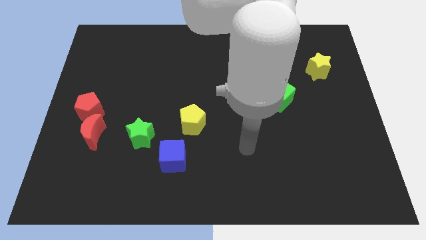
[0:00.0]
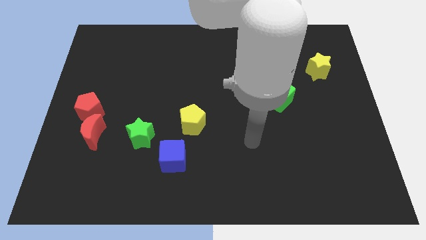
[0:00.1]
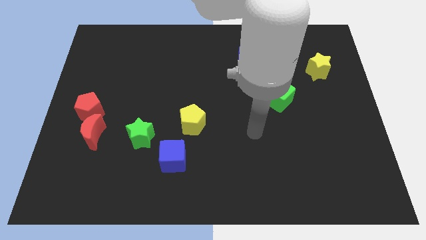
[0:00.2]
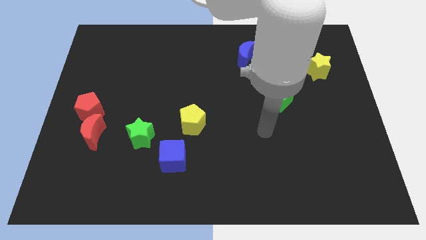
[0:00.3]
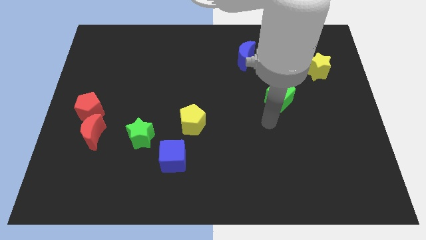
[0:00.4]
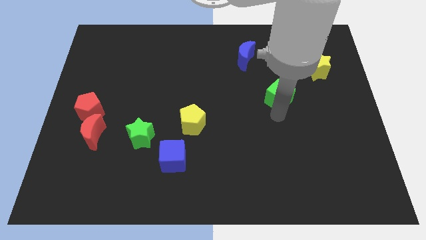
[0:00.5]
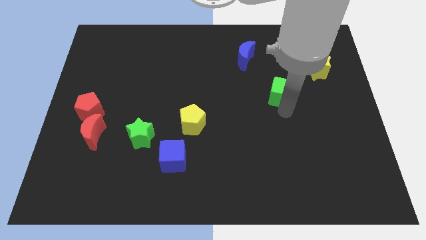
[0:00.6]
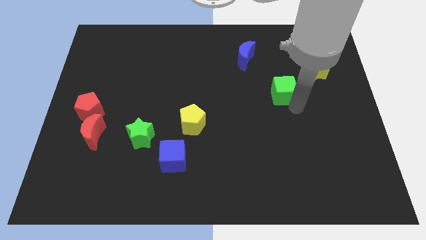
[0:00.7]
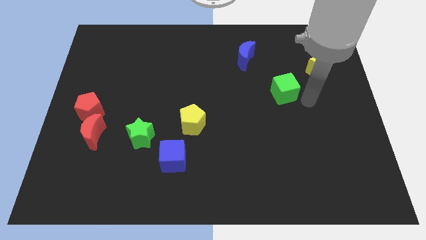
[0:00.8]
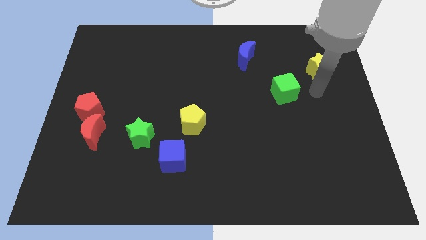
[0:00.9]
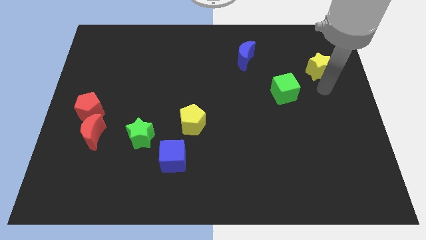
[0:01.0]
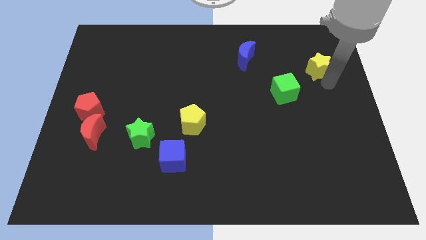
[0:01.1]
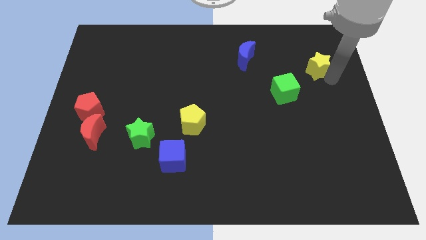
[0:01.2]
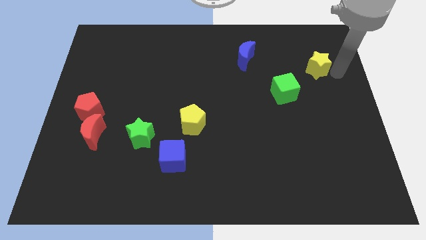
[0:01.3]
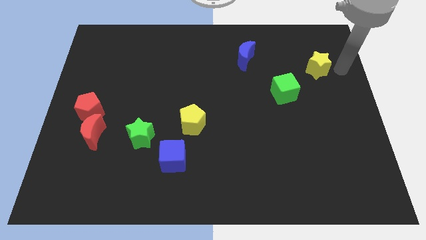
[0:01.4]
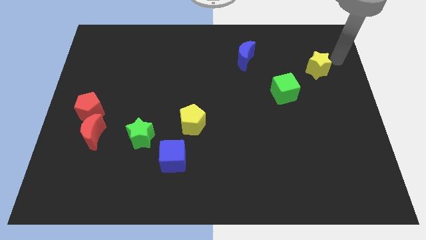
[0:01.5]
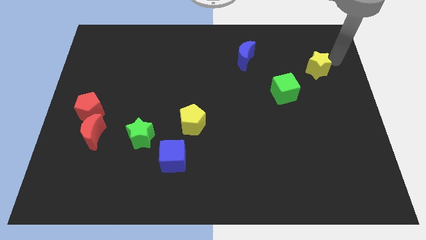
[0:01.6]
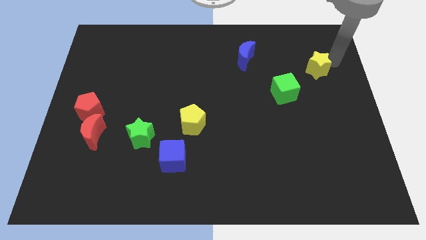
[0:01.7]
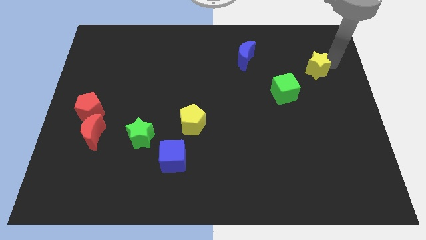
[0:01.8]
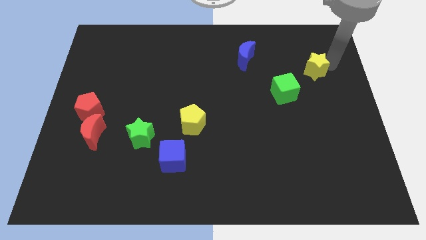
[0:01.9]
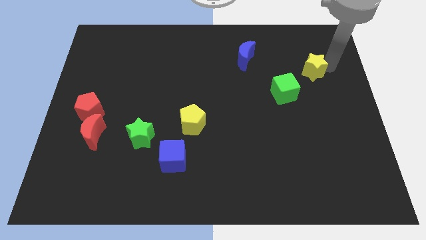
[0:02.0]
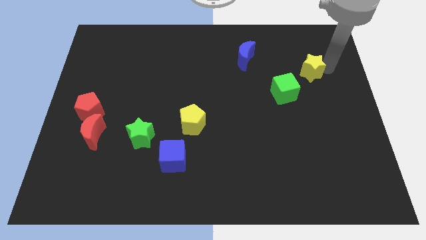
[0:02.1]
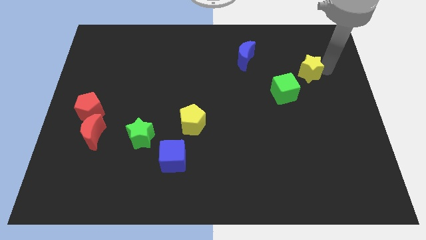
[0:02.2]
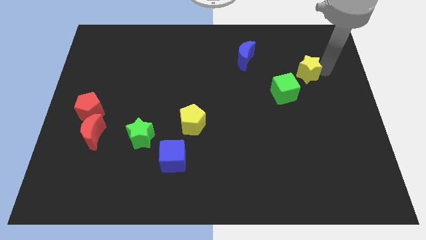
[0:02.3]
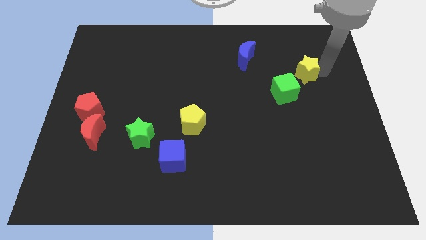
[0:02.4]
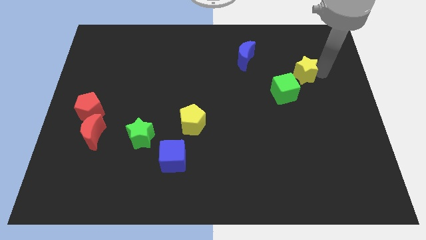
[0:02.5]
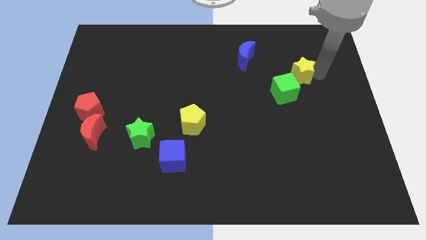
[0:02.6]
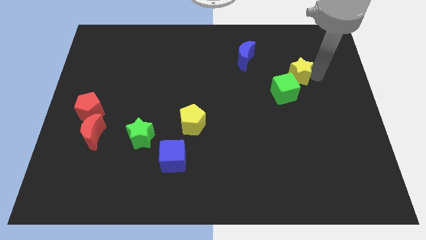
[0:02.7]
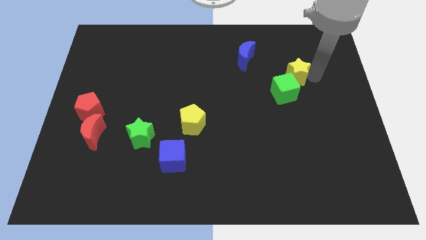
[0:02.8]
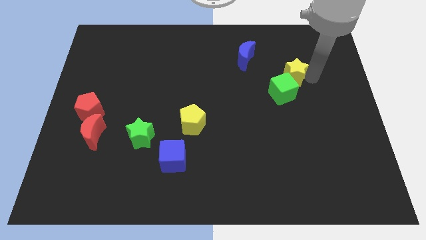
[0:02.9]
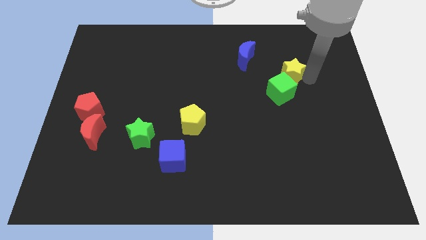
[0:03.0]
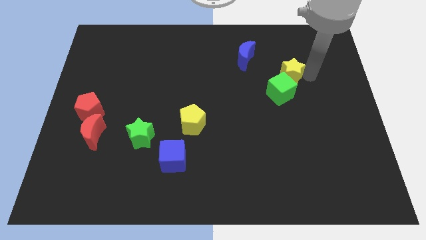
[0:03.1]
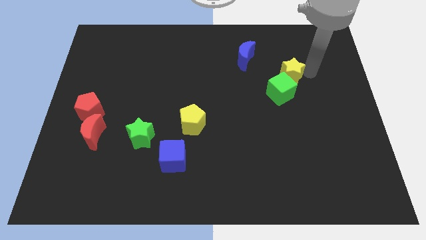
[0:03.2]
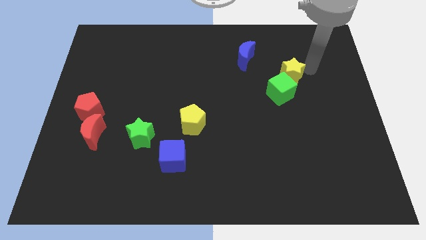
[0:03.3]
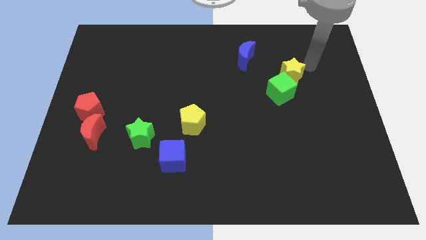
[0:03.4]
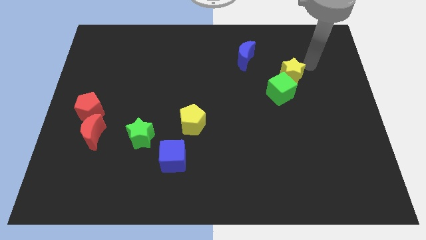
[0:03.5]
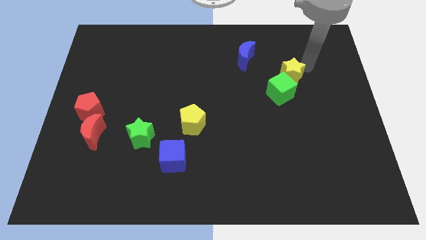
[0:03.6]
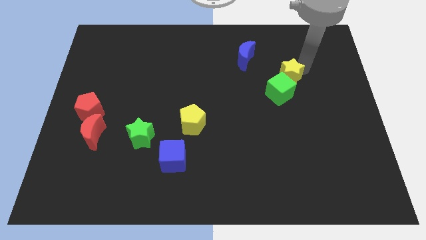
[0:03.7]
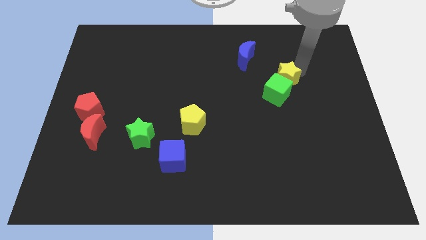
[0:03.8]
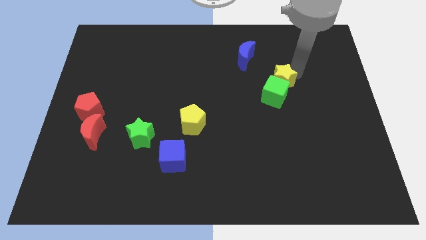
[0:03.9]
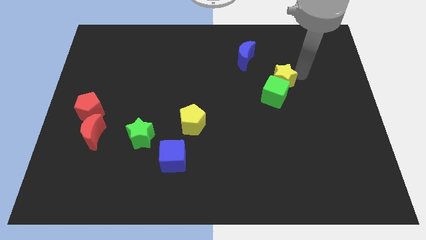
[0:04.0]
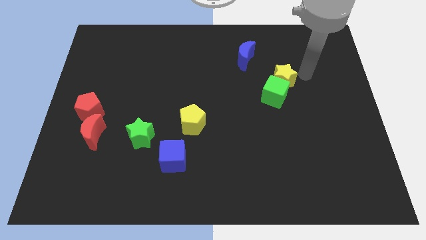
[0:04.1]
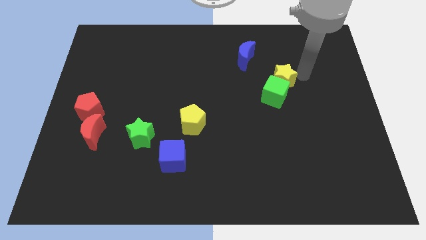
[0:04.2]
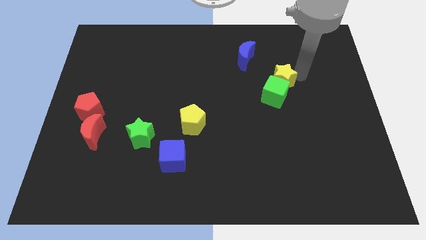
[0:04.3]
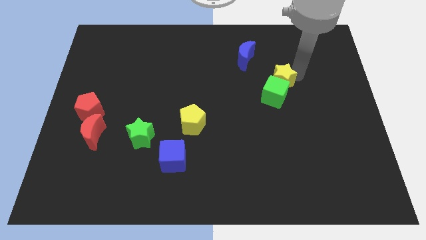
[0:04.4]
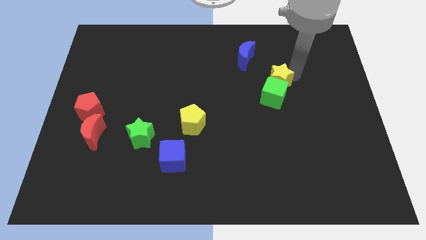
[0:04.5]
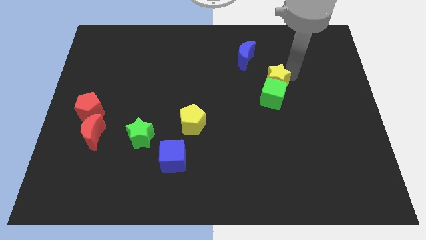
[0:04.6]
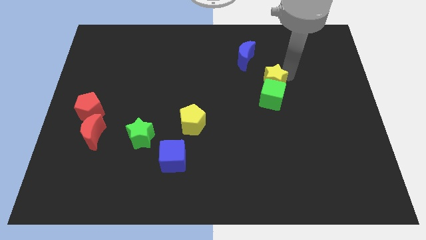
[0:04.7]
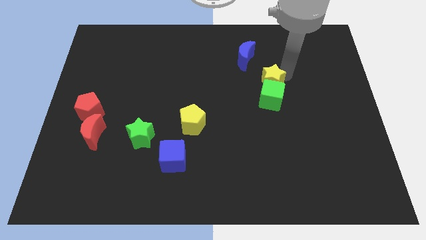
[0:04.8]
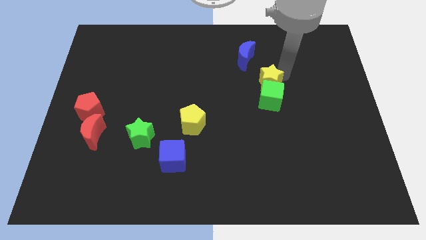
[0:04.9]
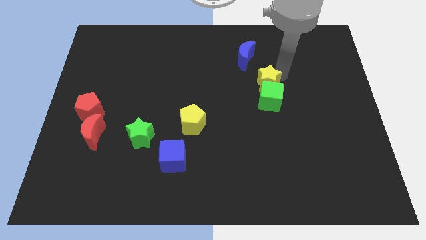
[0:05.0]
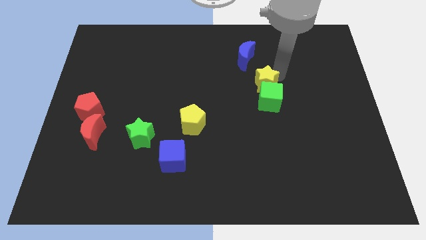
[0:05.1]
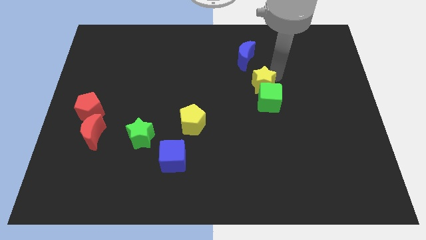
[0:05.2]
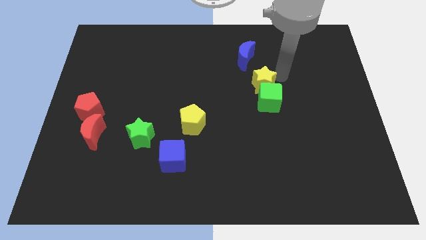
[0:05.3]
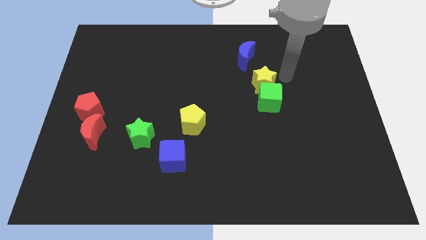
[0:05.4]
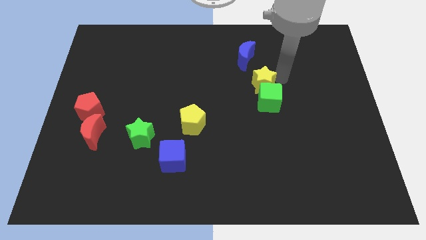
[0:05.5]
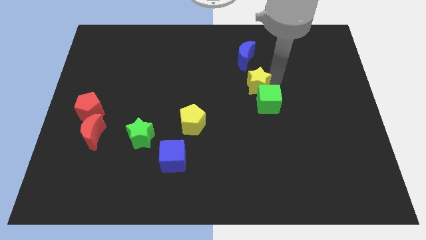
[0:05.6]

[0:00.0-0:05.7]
slide the yellow star to the middle of the board
